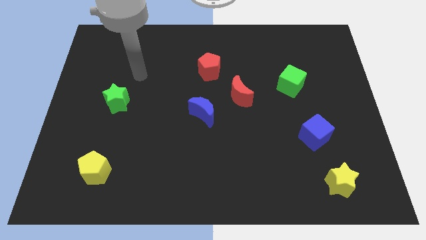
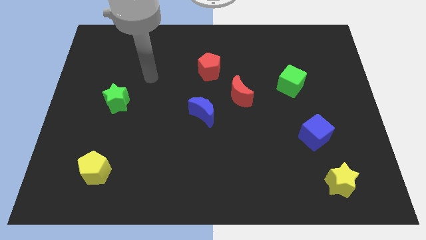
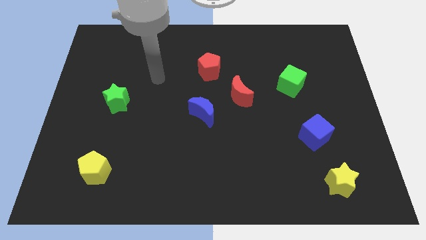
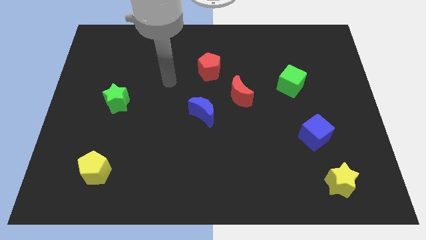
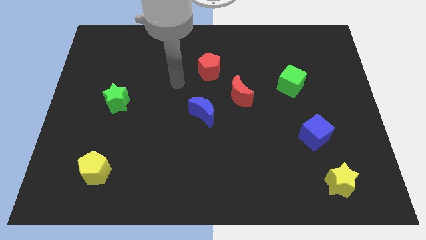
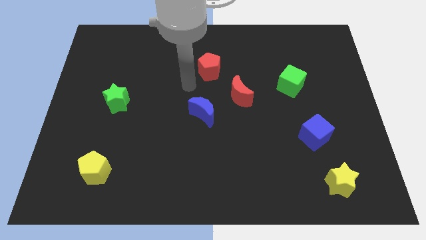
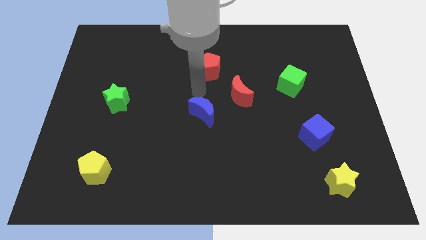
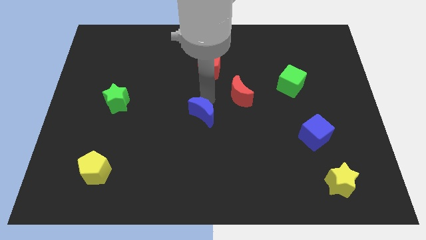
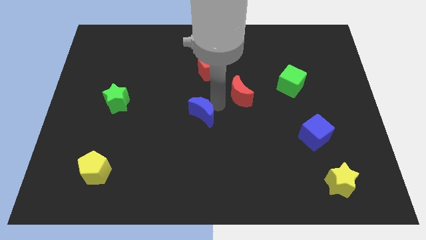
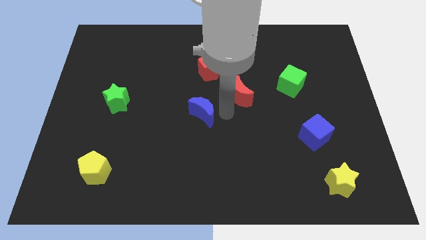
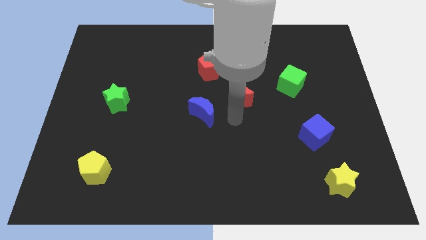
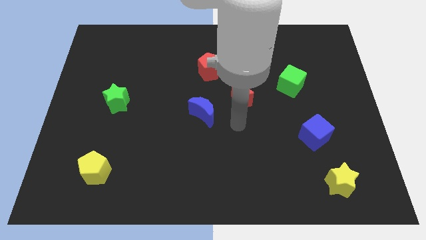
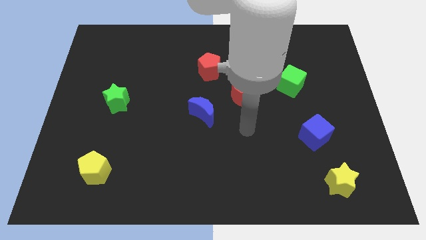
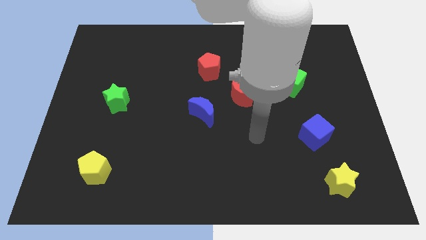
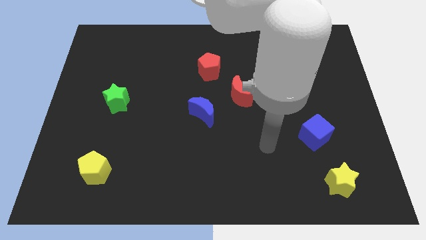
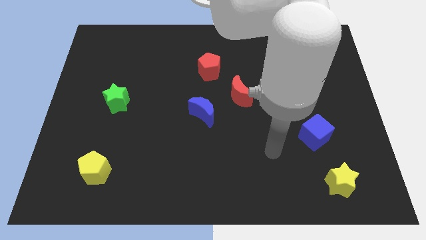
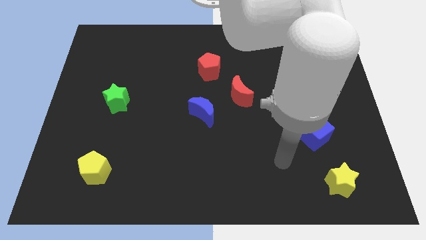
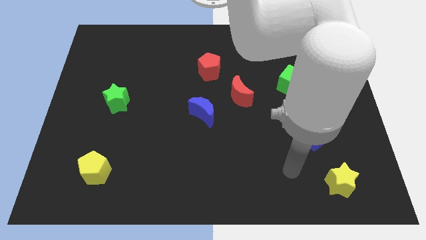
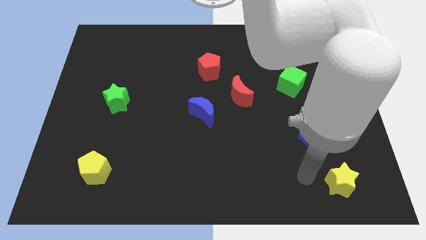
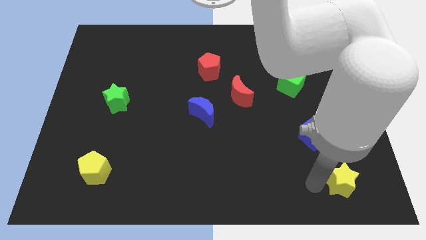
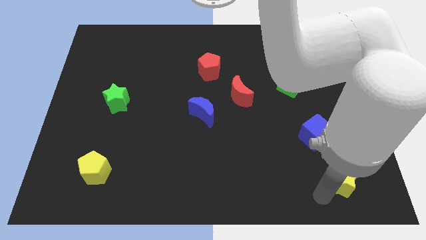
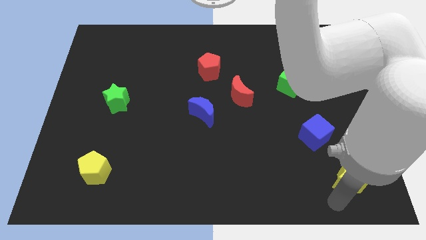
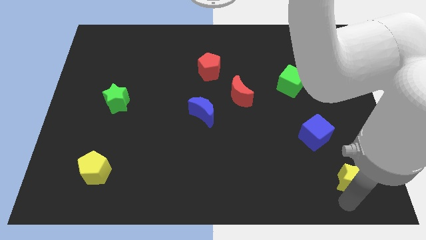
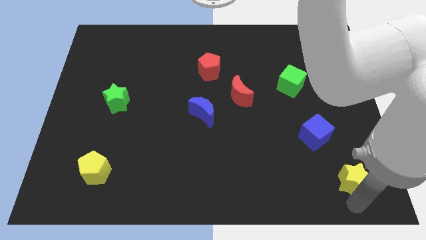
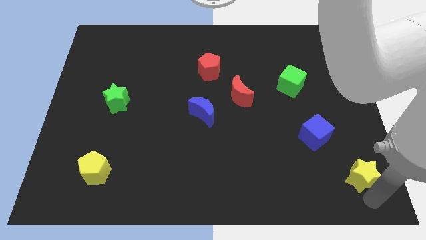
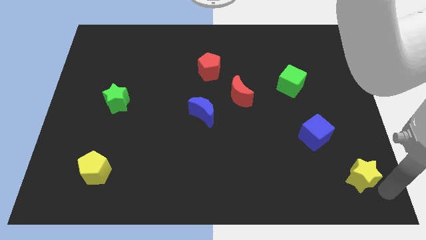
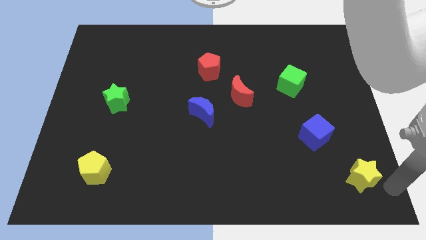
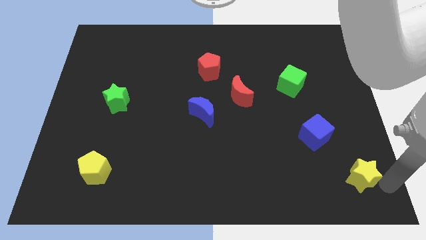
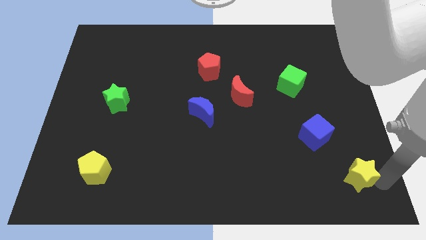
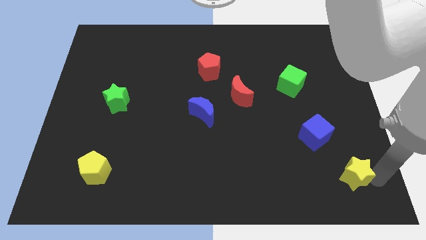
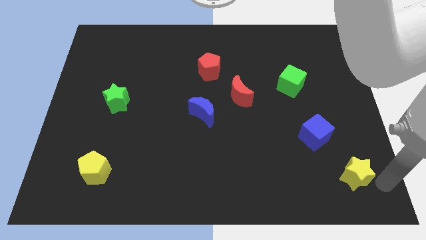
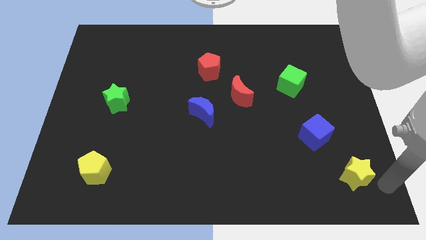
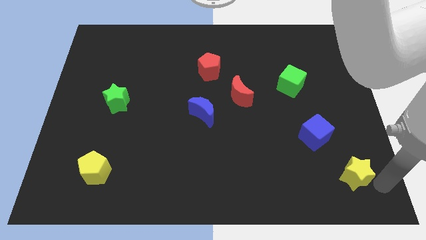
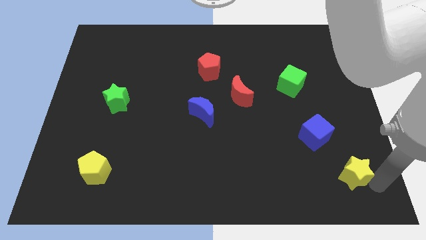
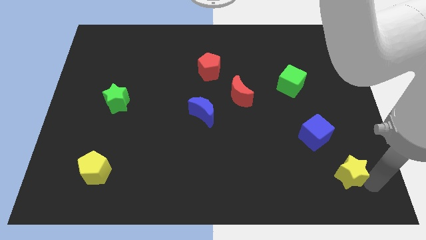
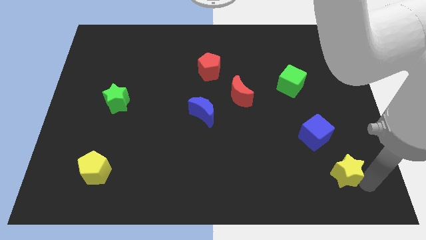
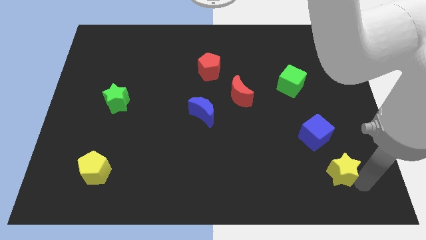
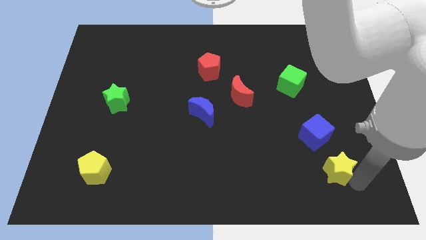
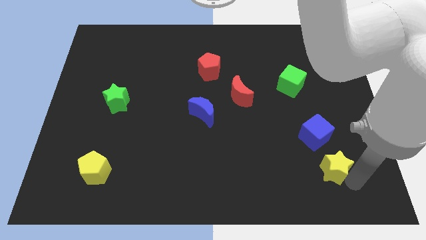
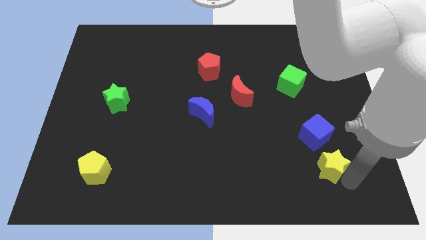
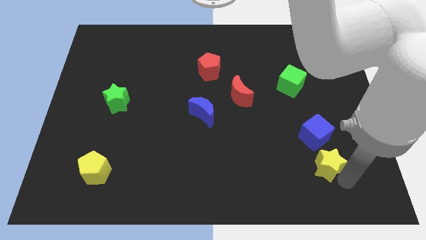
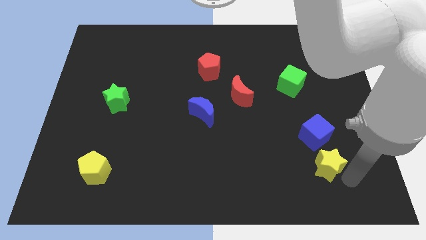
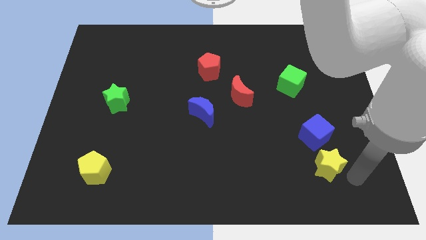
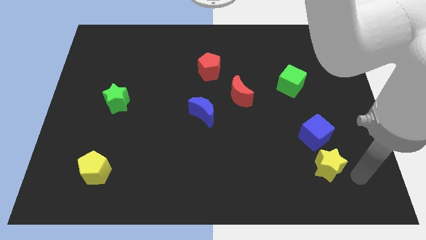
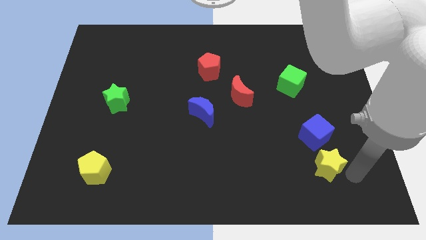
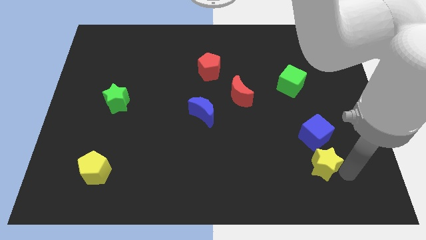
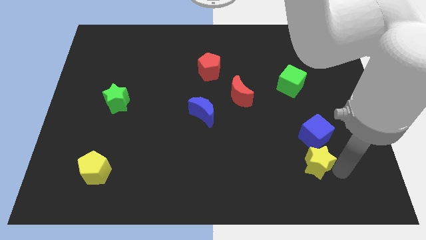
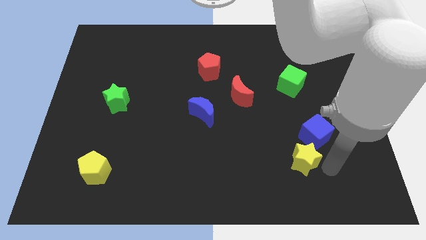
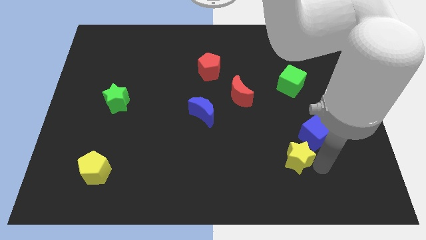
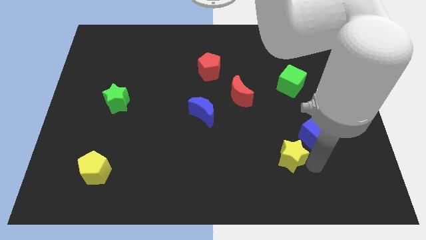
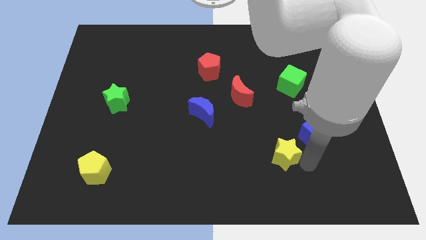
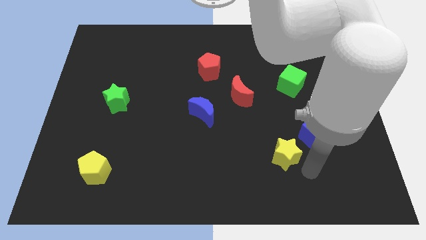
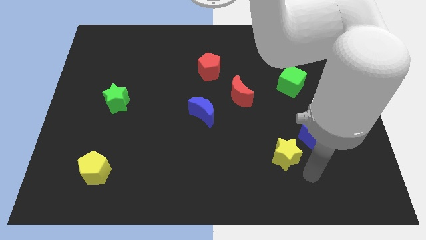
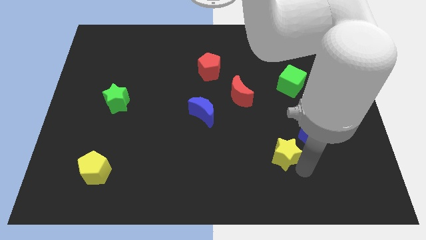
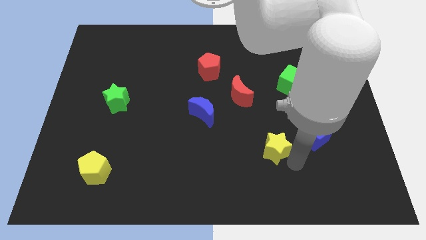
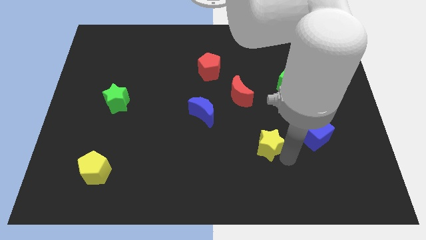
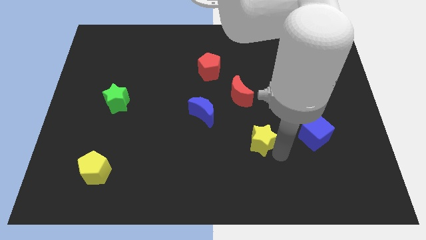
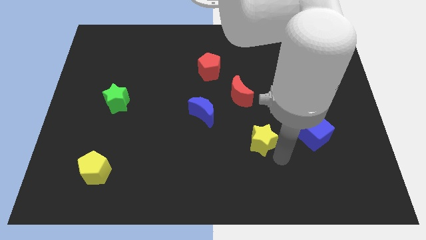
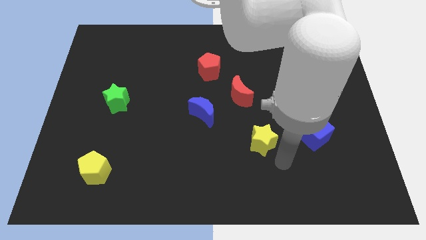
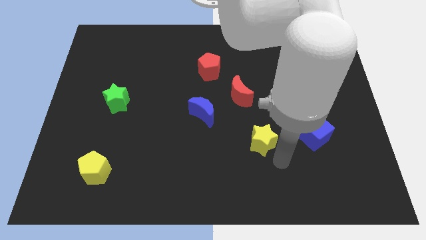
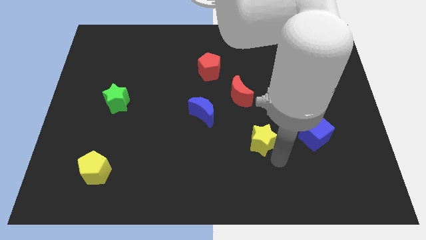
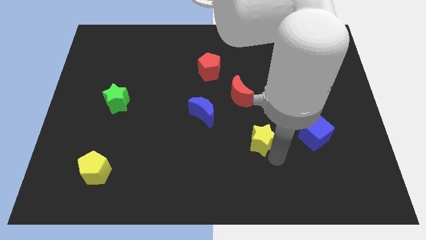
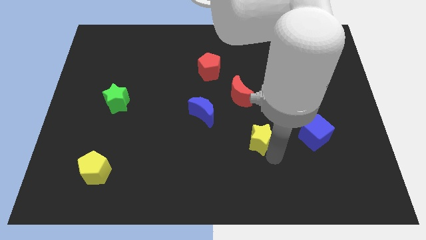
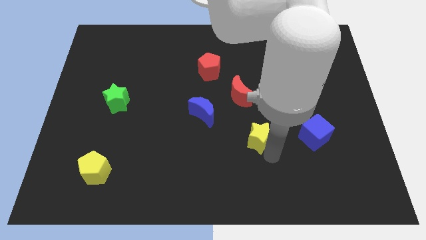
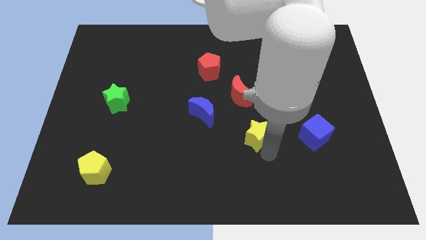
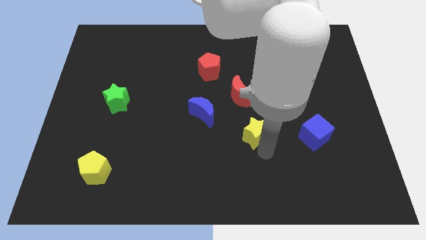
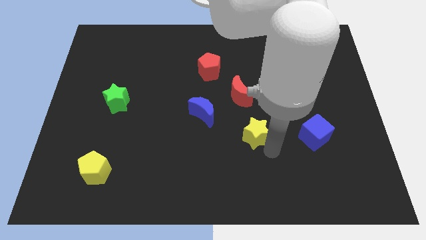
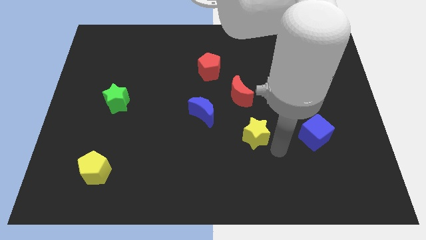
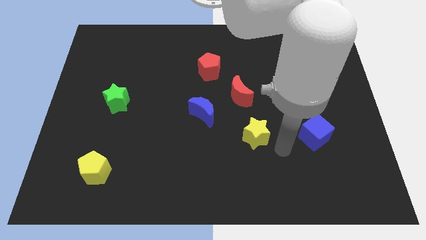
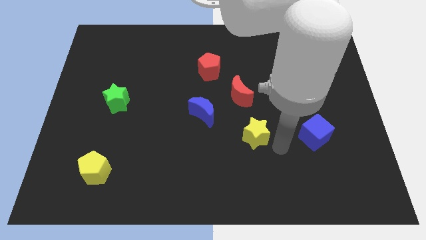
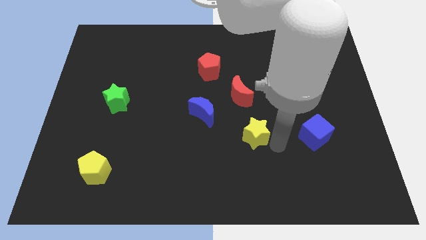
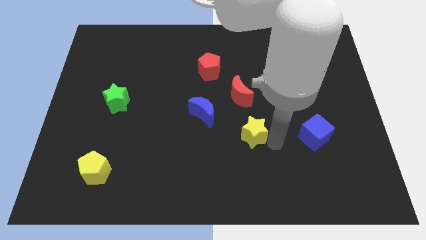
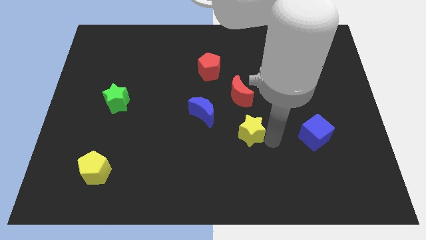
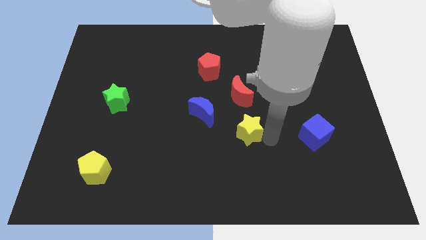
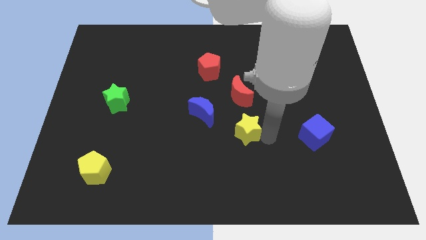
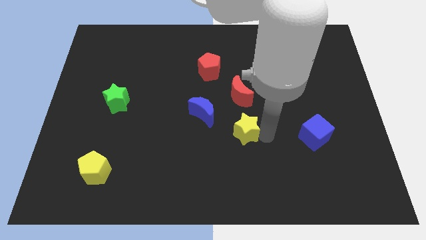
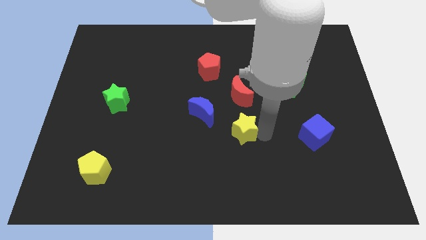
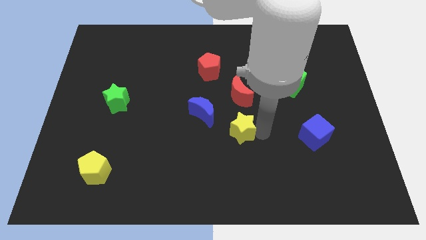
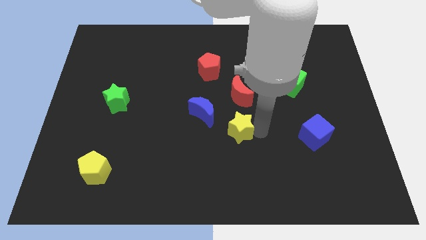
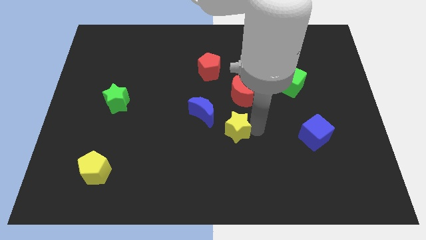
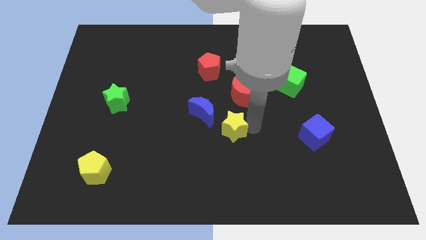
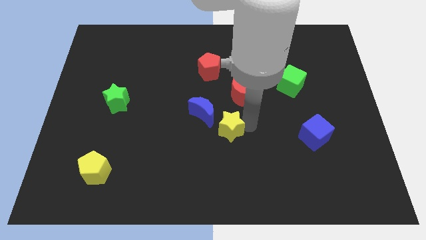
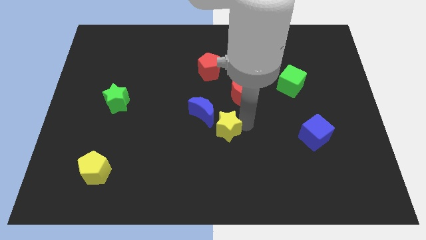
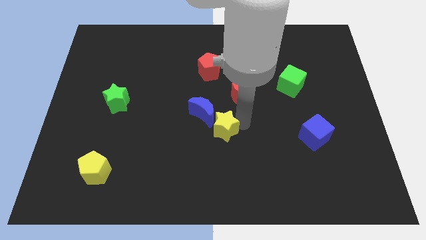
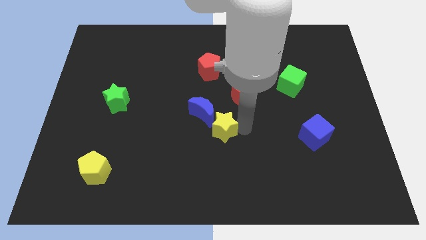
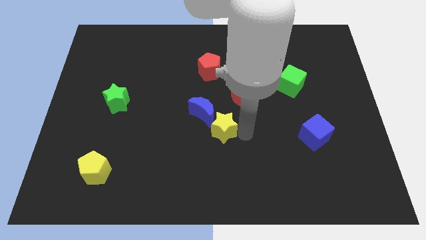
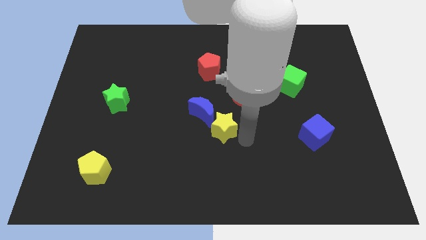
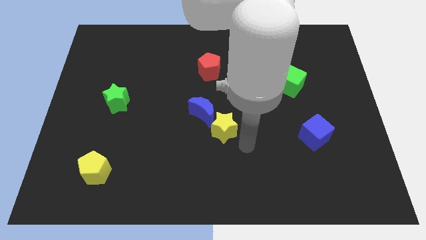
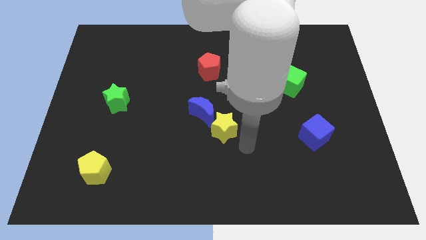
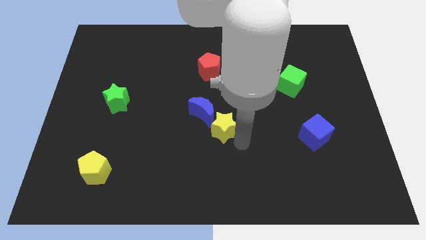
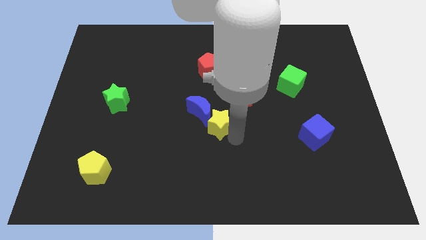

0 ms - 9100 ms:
move the yellow star next to the blue moon
